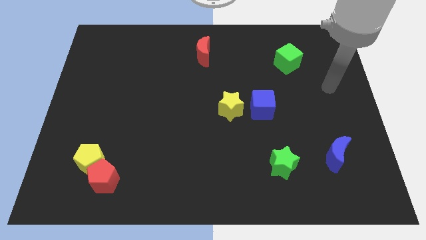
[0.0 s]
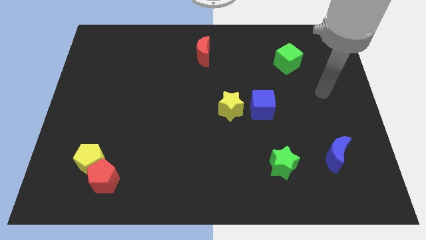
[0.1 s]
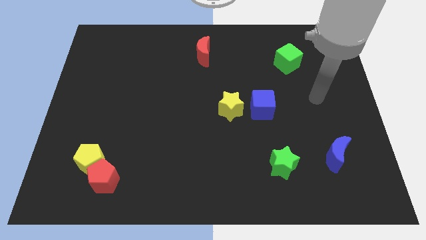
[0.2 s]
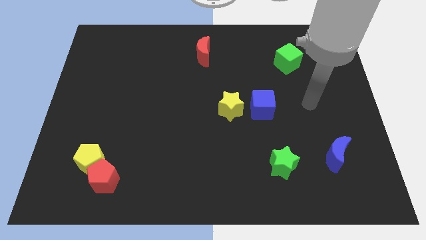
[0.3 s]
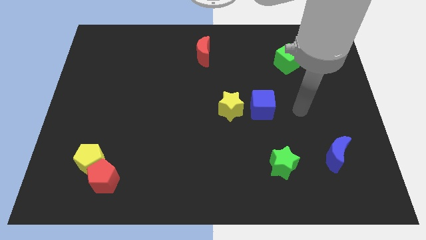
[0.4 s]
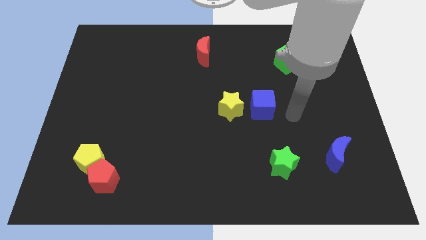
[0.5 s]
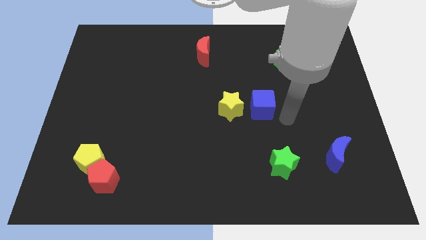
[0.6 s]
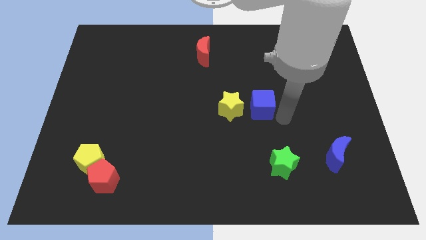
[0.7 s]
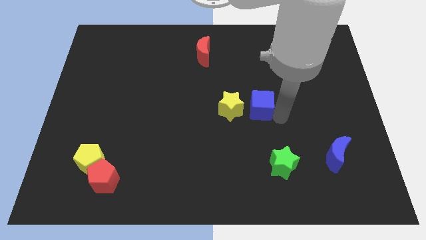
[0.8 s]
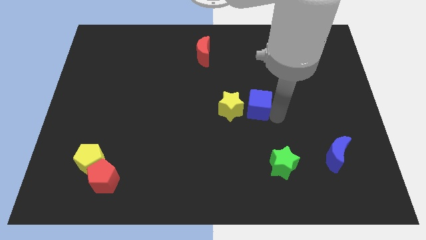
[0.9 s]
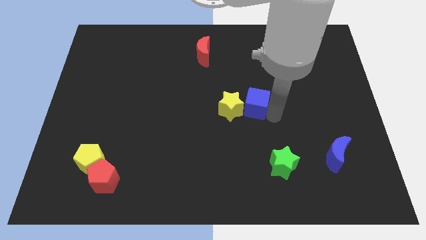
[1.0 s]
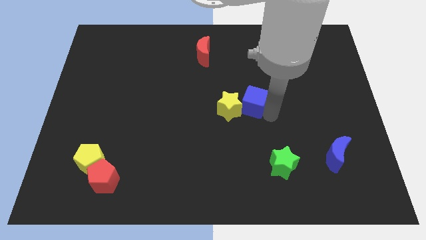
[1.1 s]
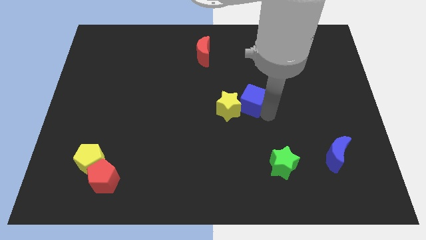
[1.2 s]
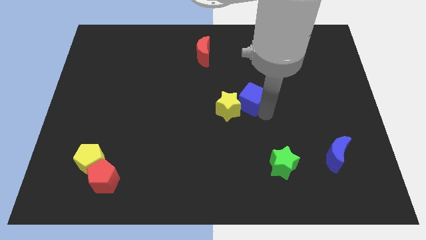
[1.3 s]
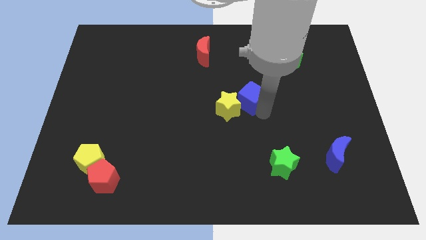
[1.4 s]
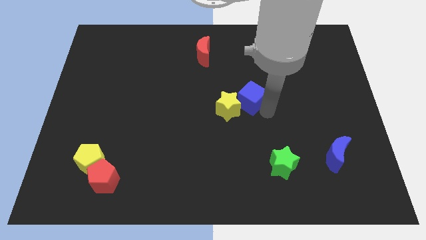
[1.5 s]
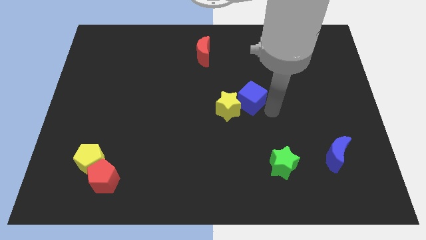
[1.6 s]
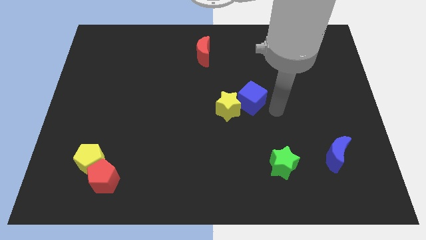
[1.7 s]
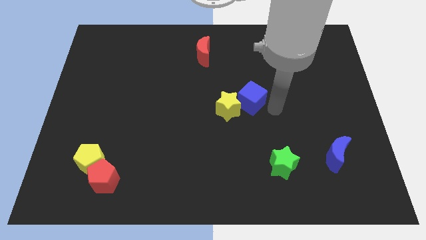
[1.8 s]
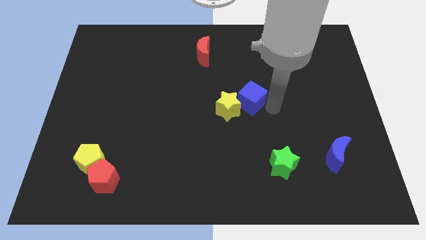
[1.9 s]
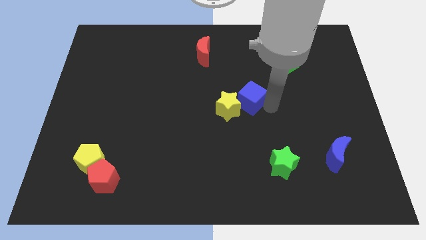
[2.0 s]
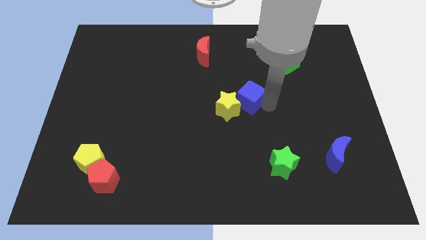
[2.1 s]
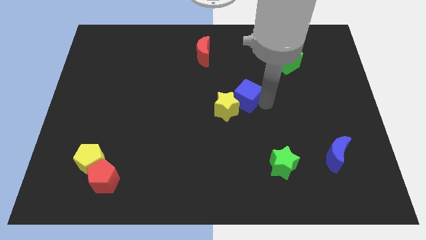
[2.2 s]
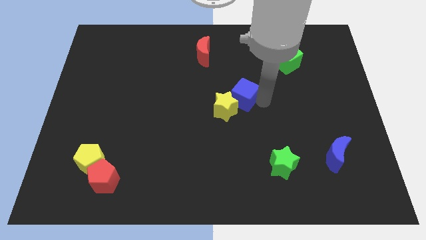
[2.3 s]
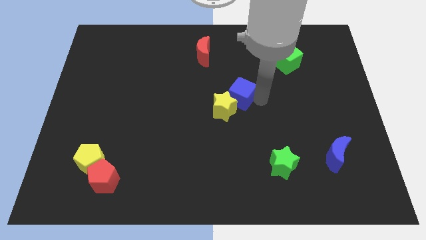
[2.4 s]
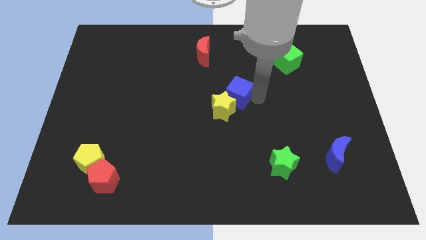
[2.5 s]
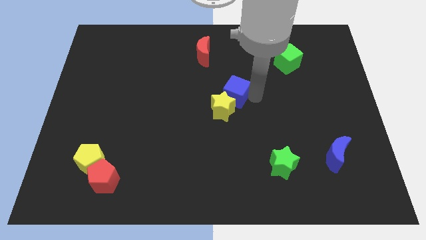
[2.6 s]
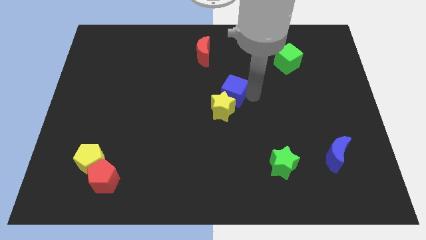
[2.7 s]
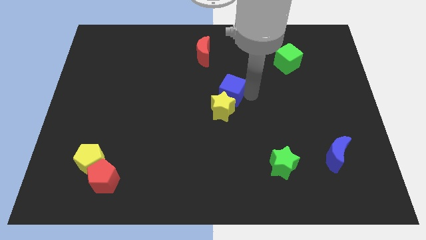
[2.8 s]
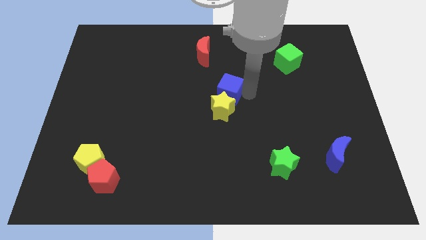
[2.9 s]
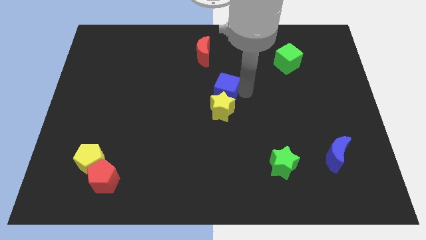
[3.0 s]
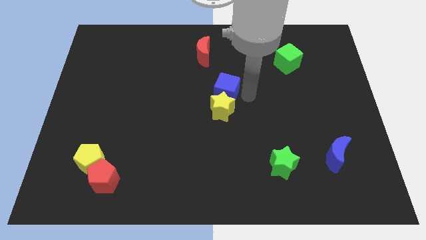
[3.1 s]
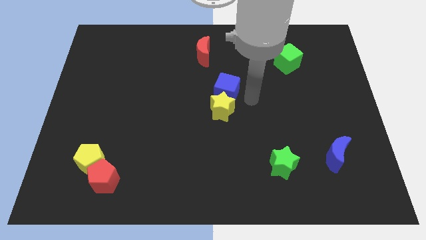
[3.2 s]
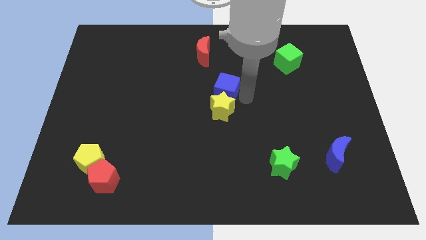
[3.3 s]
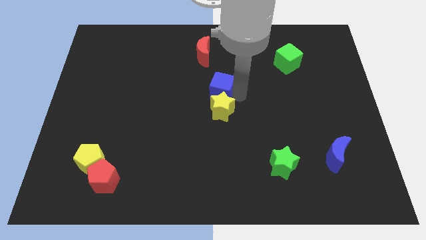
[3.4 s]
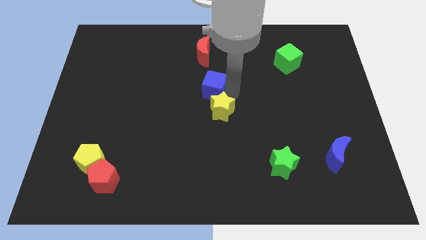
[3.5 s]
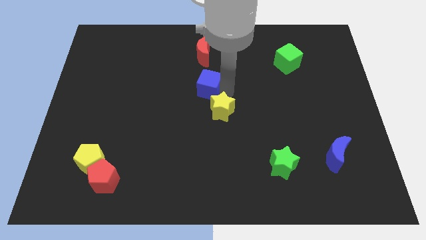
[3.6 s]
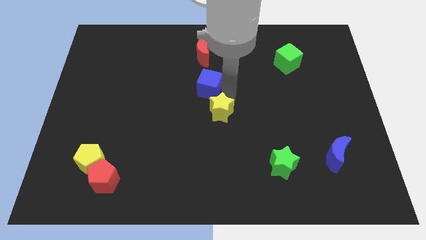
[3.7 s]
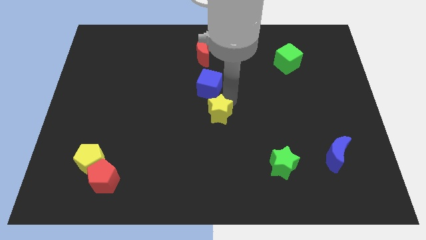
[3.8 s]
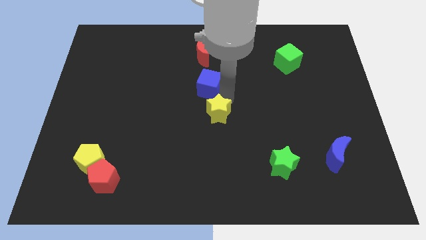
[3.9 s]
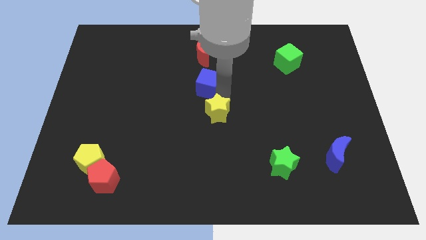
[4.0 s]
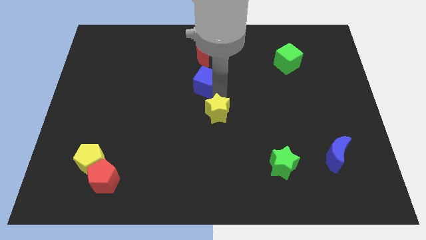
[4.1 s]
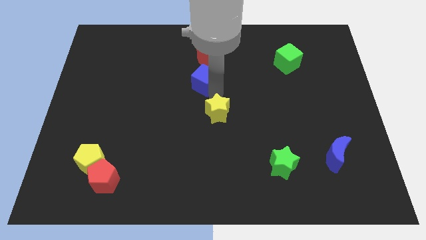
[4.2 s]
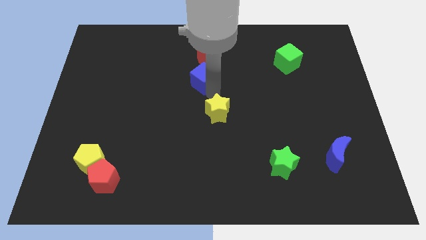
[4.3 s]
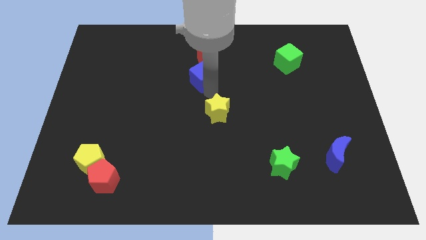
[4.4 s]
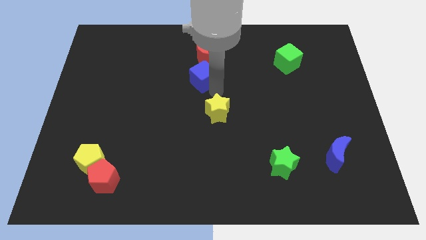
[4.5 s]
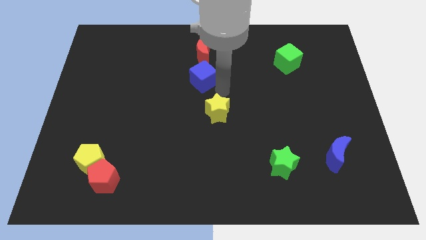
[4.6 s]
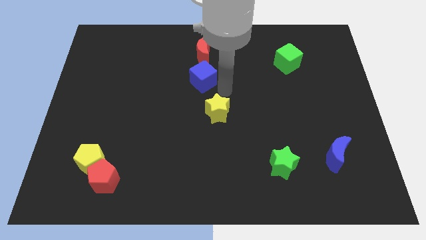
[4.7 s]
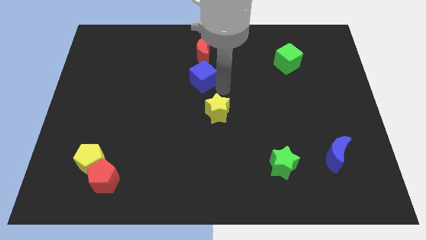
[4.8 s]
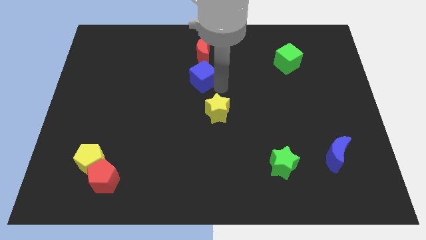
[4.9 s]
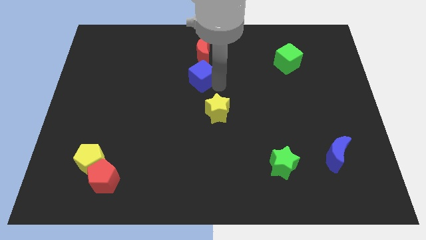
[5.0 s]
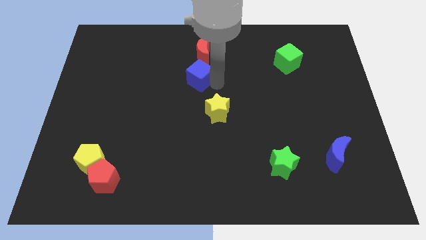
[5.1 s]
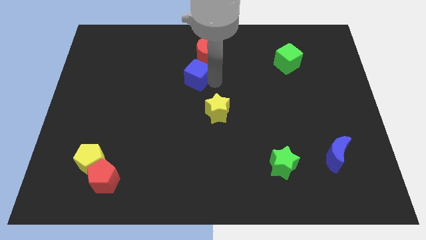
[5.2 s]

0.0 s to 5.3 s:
push the blue cube to the bottom left side of the red moon

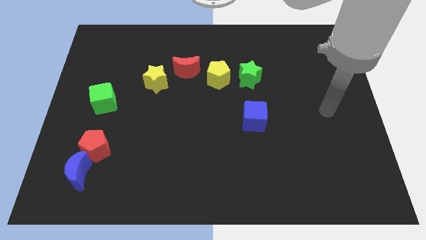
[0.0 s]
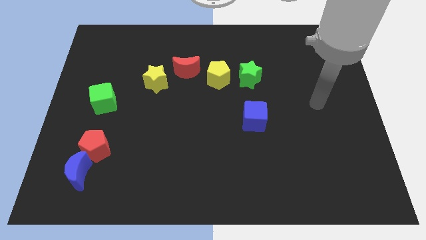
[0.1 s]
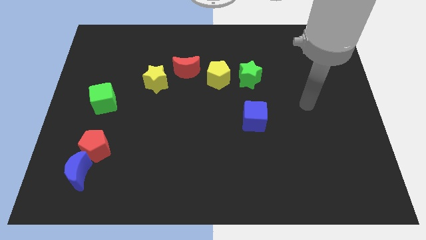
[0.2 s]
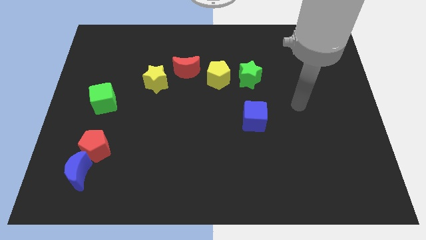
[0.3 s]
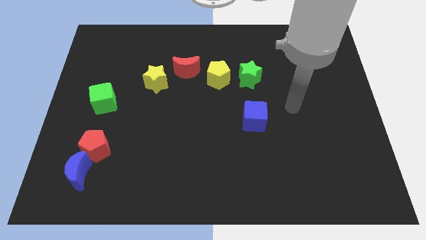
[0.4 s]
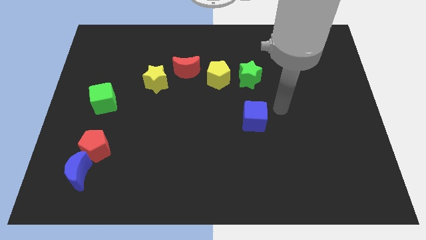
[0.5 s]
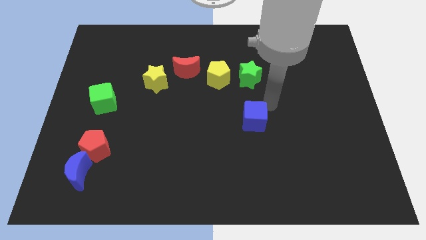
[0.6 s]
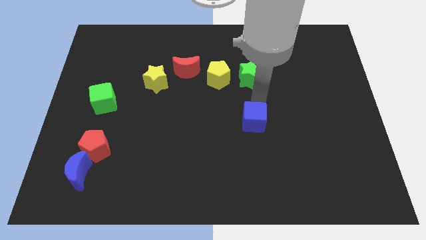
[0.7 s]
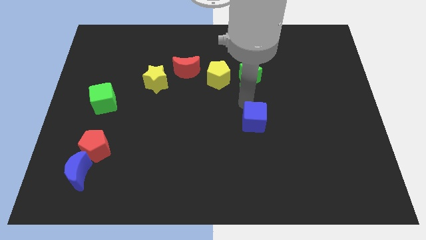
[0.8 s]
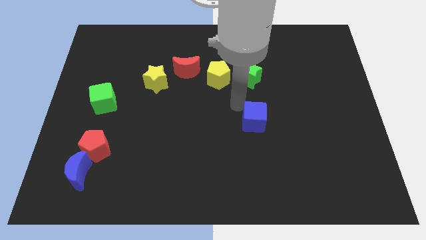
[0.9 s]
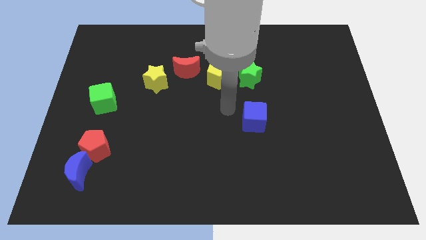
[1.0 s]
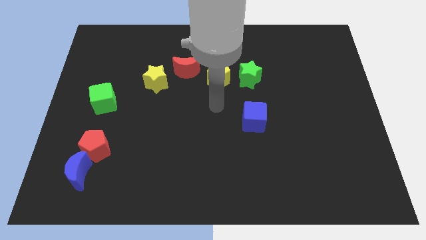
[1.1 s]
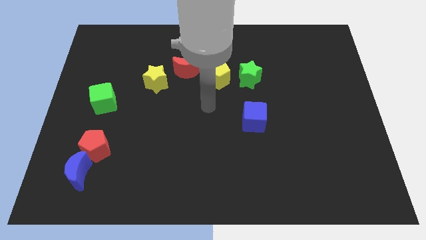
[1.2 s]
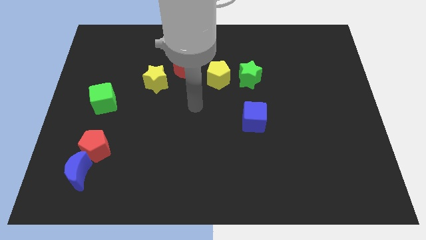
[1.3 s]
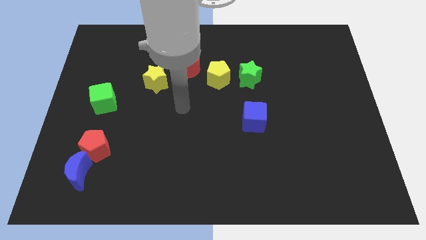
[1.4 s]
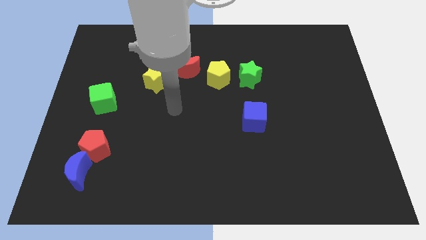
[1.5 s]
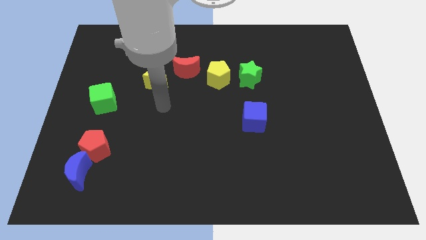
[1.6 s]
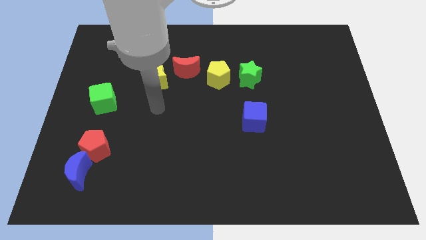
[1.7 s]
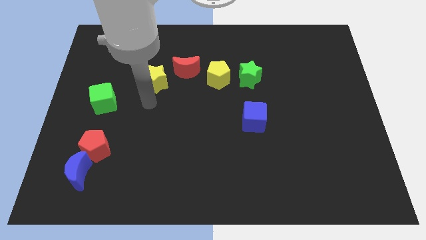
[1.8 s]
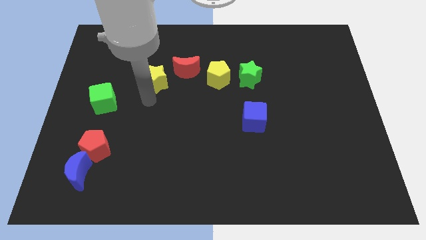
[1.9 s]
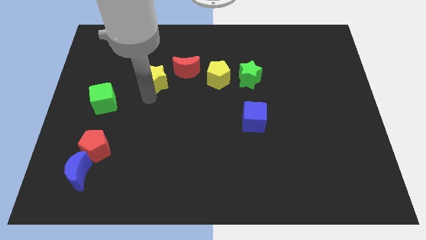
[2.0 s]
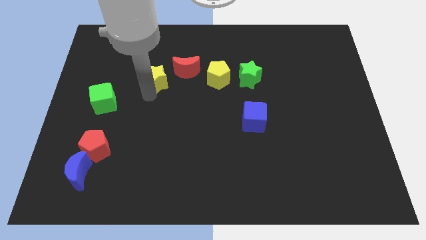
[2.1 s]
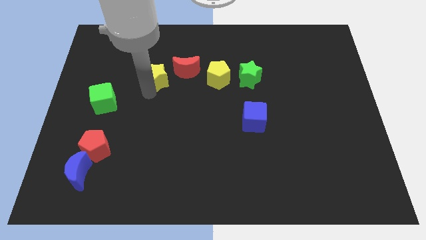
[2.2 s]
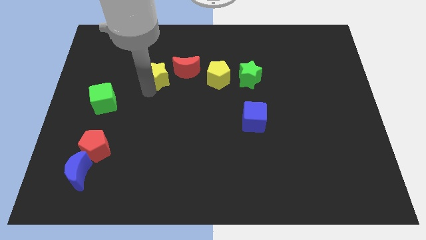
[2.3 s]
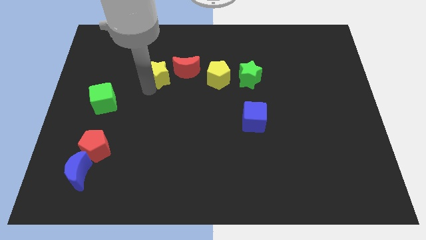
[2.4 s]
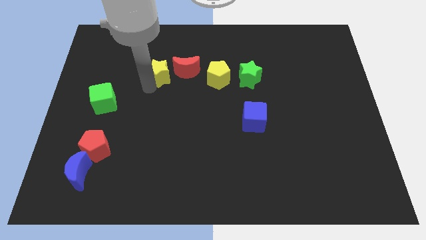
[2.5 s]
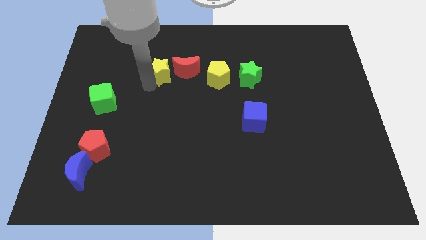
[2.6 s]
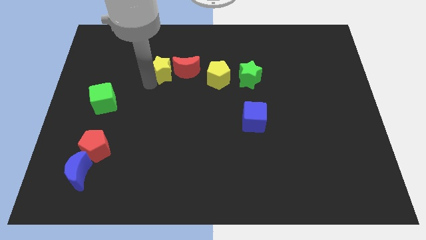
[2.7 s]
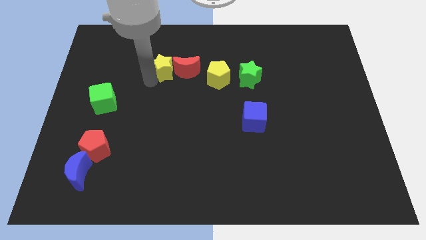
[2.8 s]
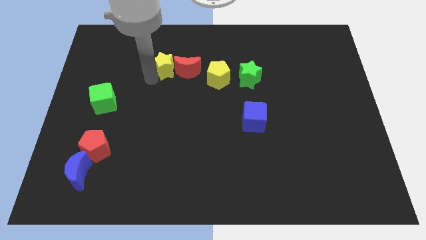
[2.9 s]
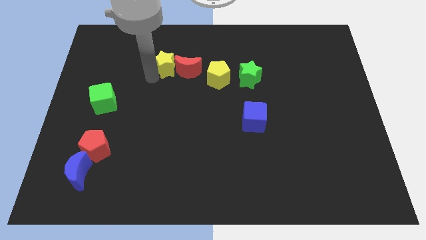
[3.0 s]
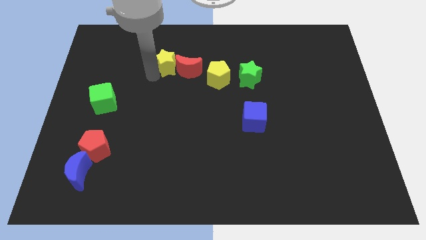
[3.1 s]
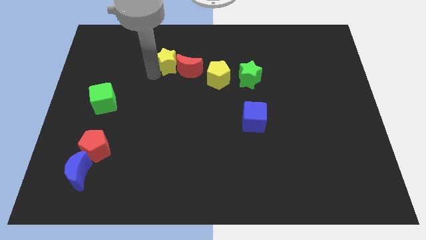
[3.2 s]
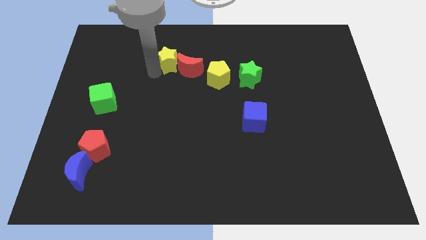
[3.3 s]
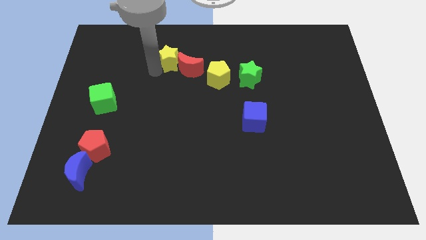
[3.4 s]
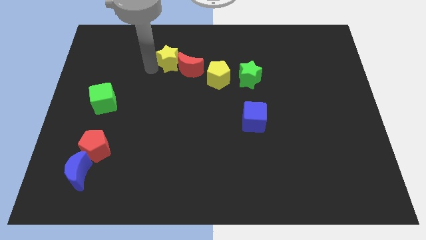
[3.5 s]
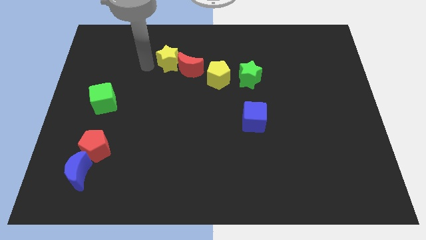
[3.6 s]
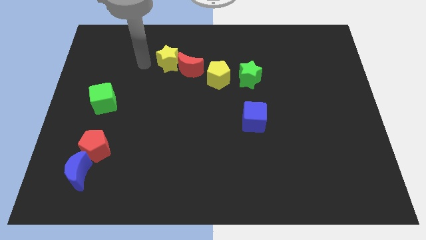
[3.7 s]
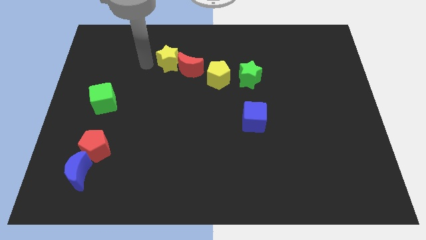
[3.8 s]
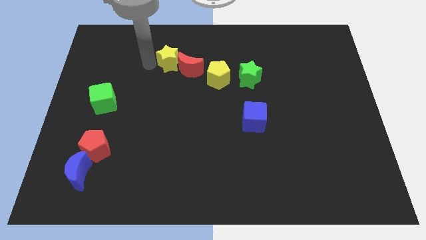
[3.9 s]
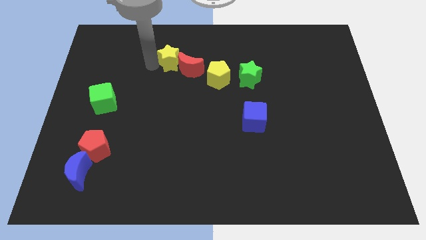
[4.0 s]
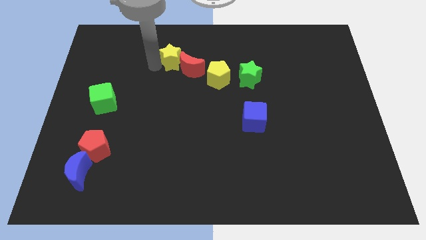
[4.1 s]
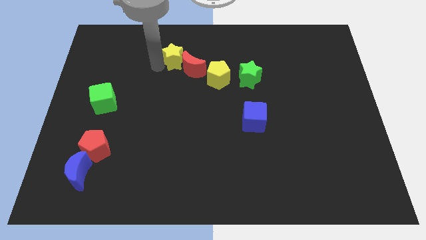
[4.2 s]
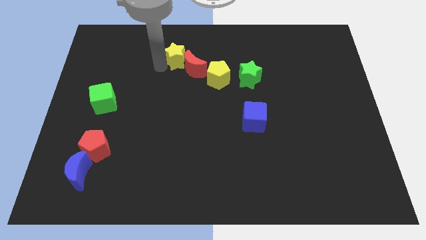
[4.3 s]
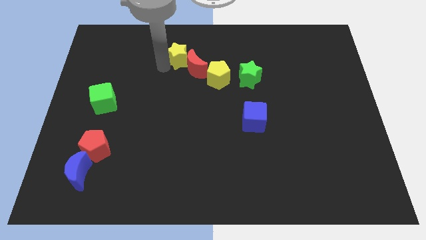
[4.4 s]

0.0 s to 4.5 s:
put the yellow star to the top left of the yellow pentagon
